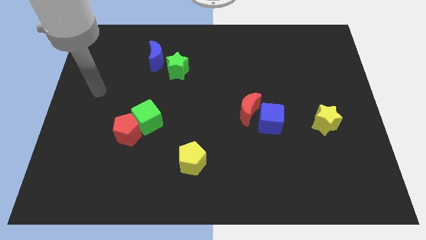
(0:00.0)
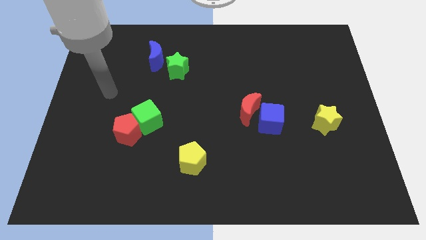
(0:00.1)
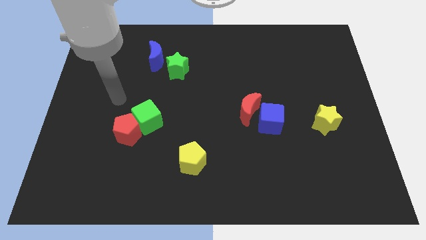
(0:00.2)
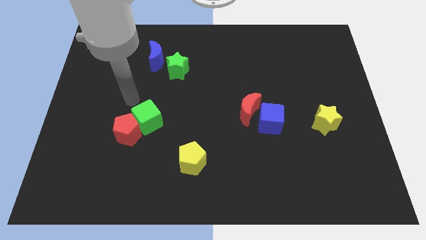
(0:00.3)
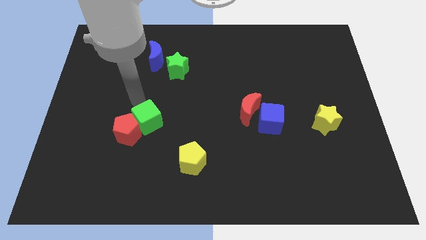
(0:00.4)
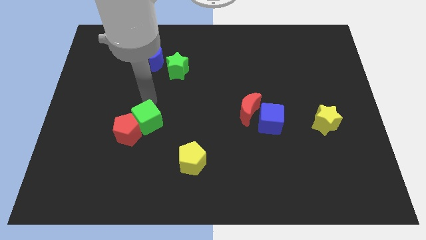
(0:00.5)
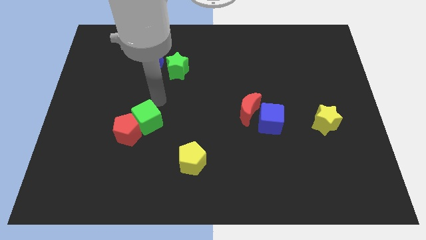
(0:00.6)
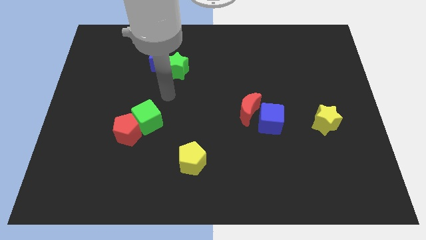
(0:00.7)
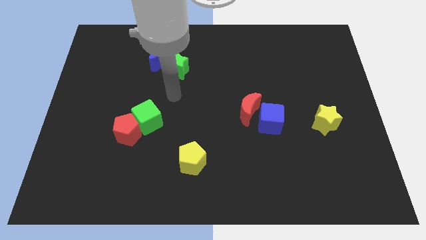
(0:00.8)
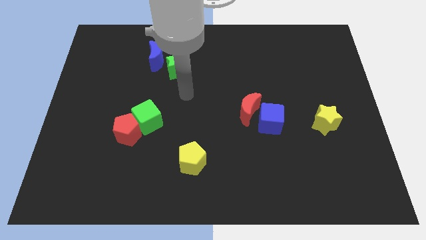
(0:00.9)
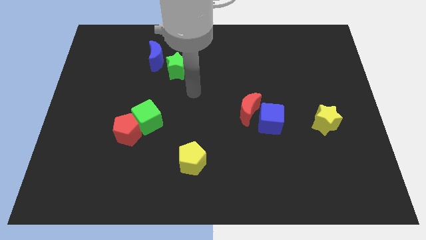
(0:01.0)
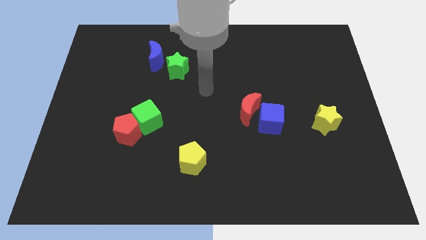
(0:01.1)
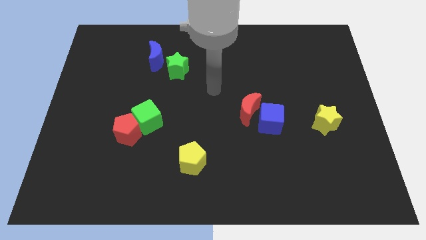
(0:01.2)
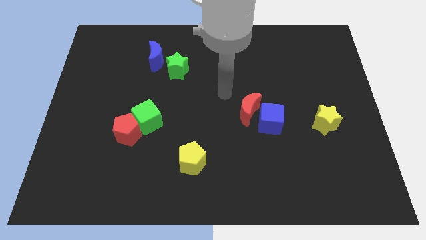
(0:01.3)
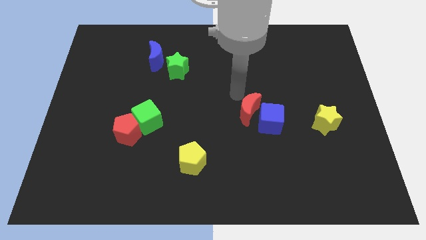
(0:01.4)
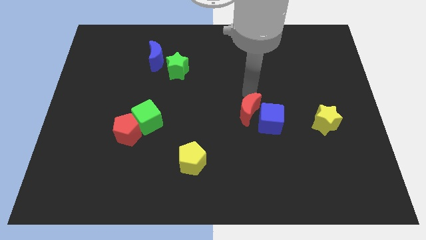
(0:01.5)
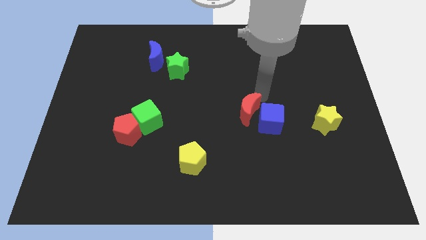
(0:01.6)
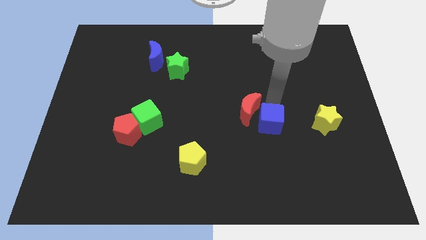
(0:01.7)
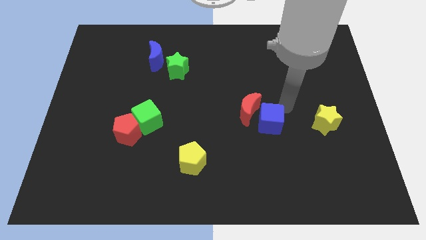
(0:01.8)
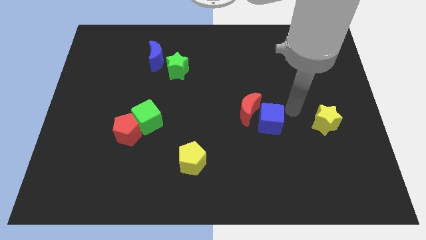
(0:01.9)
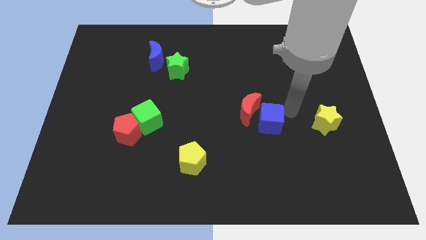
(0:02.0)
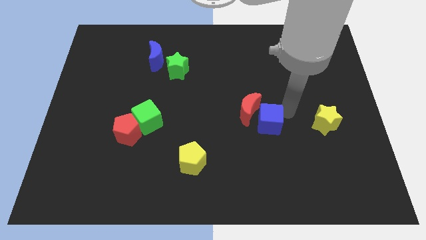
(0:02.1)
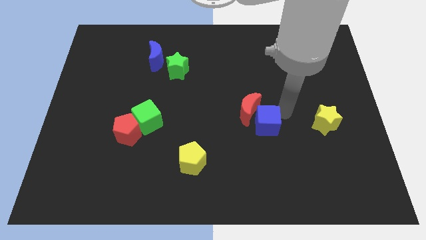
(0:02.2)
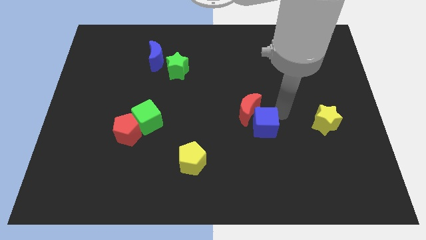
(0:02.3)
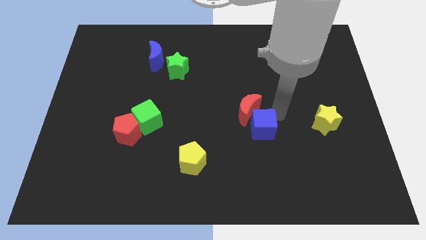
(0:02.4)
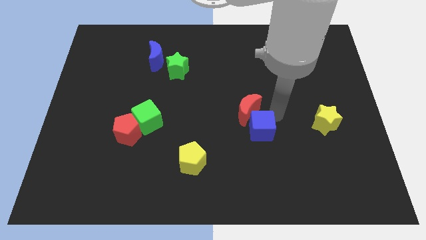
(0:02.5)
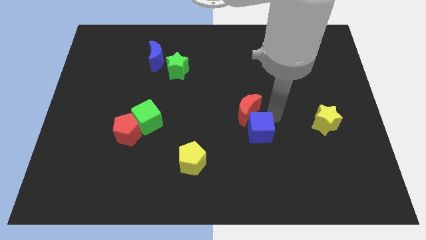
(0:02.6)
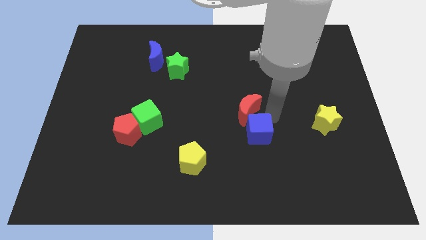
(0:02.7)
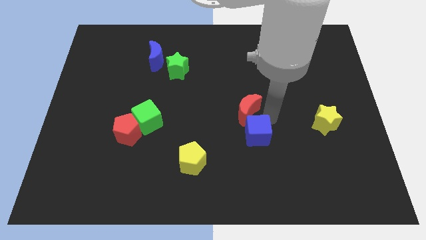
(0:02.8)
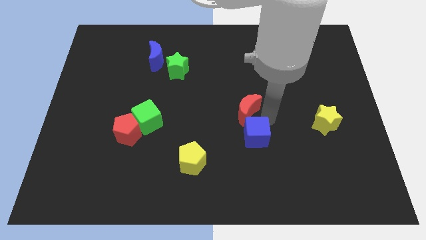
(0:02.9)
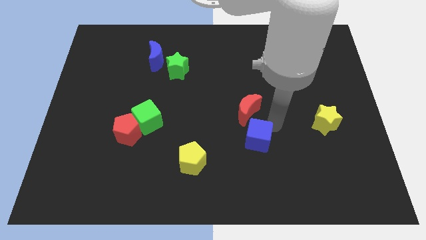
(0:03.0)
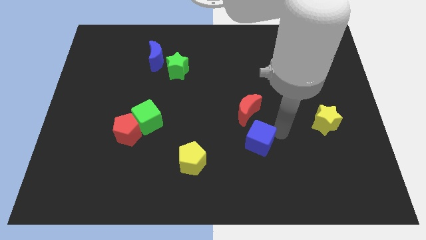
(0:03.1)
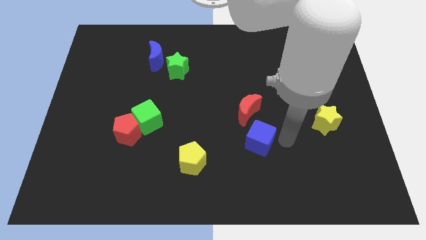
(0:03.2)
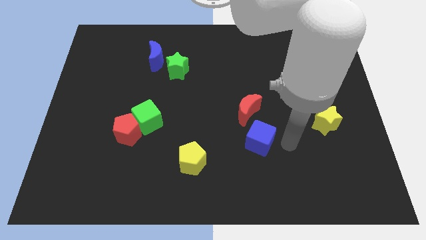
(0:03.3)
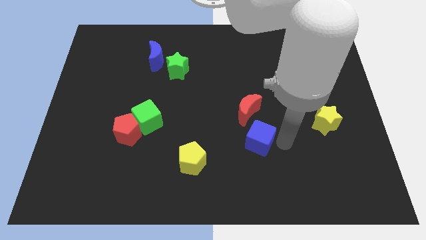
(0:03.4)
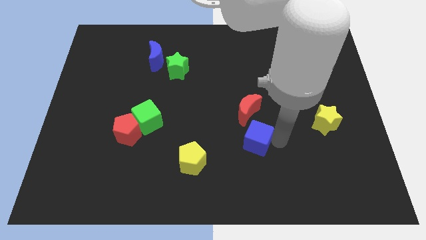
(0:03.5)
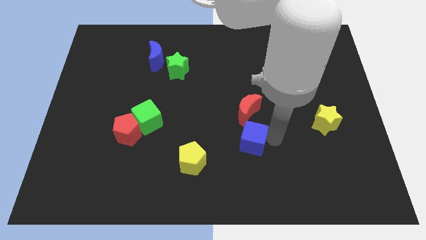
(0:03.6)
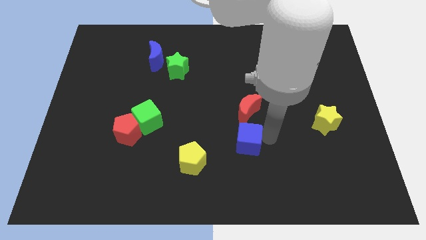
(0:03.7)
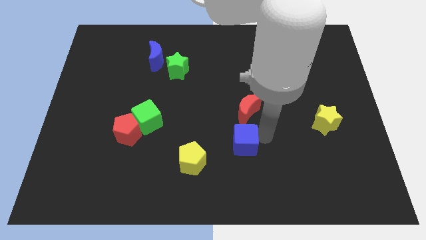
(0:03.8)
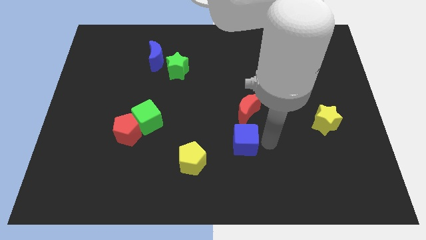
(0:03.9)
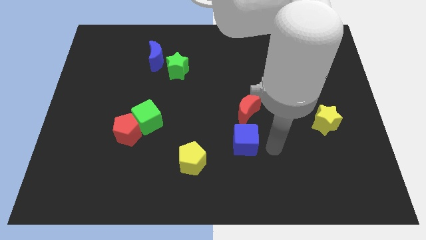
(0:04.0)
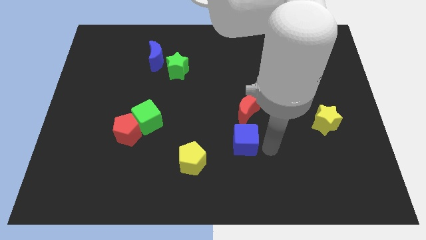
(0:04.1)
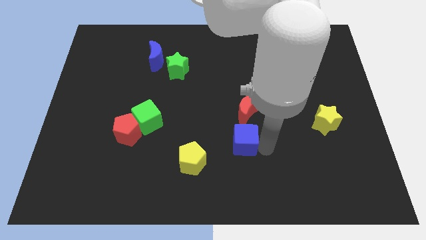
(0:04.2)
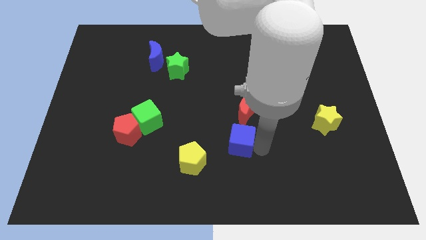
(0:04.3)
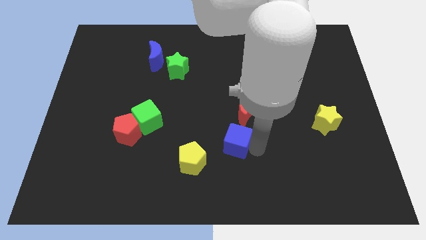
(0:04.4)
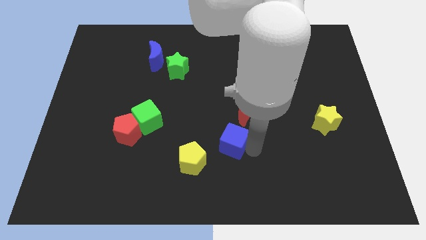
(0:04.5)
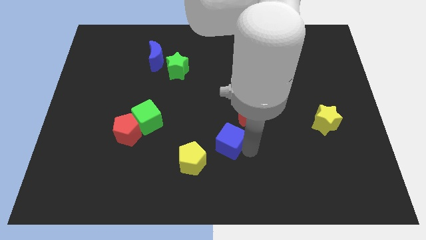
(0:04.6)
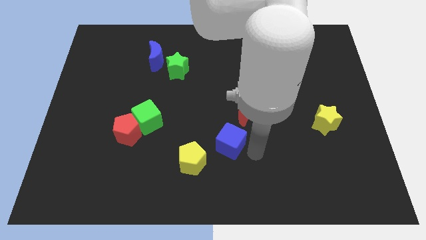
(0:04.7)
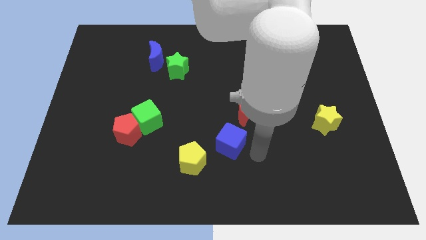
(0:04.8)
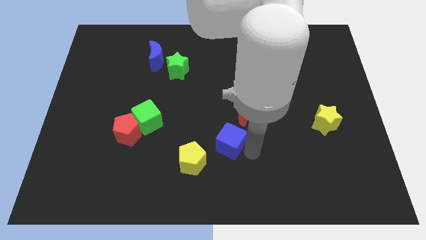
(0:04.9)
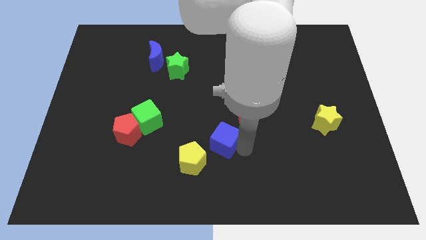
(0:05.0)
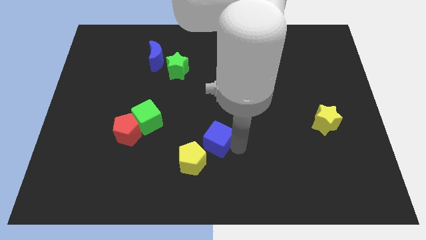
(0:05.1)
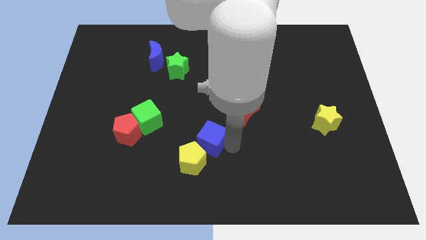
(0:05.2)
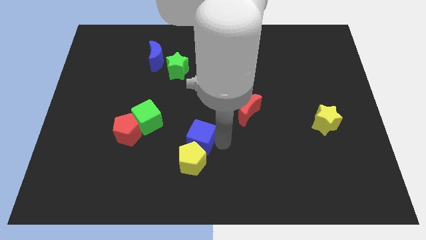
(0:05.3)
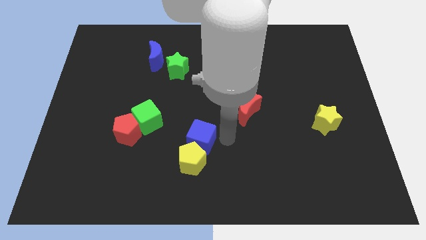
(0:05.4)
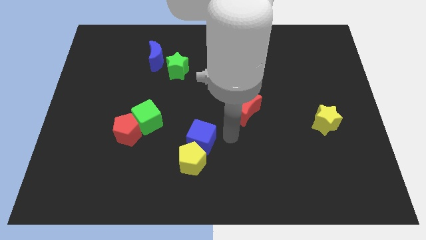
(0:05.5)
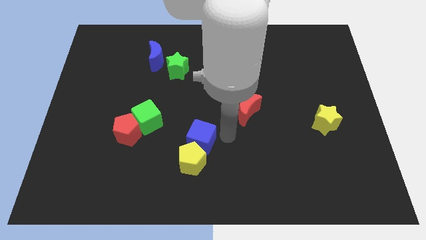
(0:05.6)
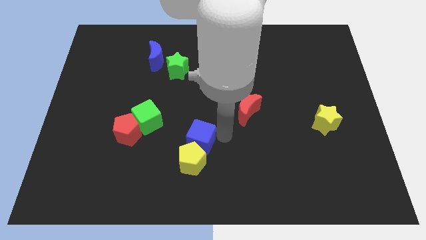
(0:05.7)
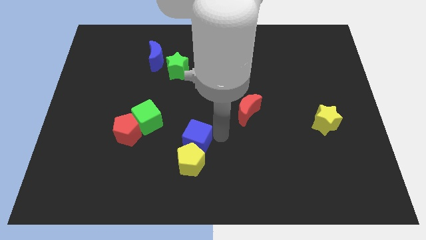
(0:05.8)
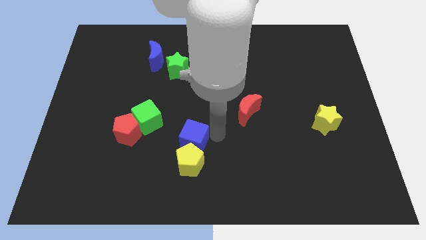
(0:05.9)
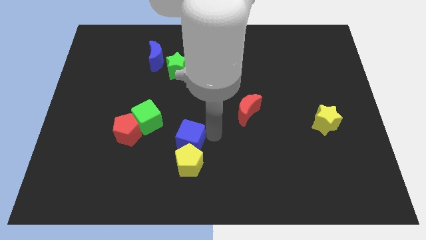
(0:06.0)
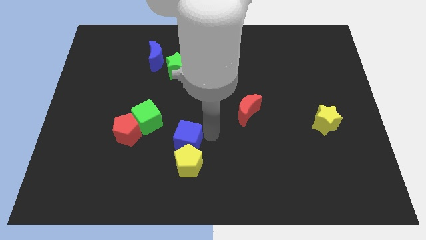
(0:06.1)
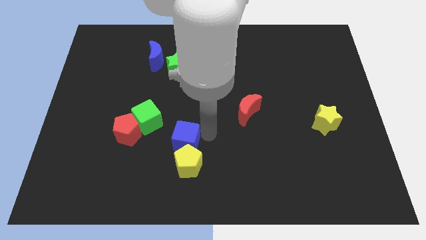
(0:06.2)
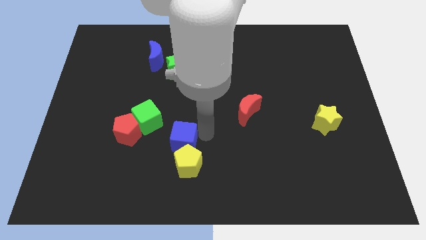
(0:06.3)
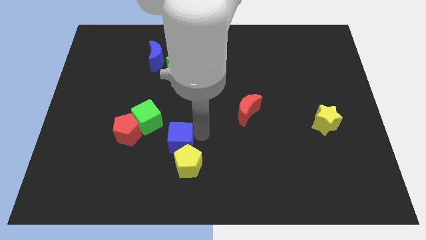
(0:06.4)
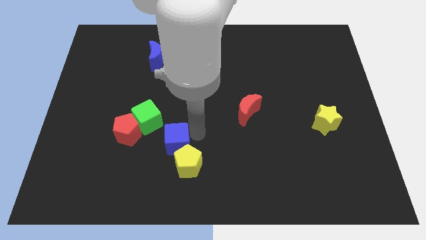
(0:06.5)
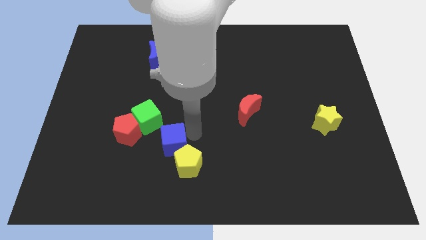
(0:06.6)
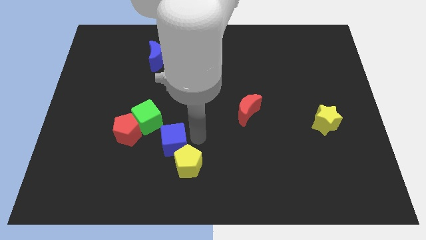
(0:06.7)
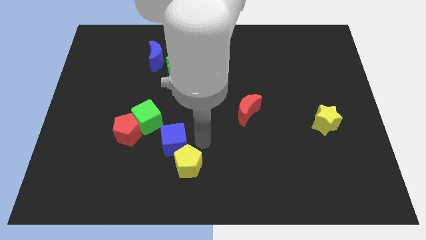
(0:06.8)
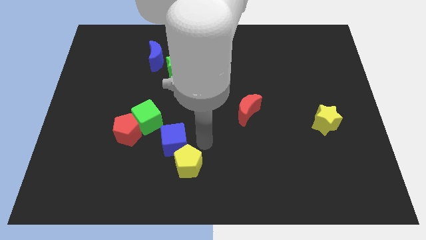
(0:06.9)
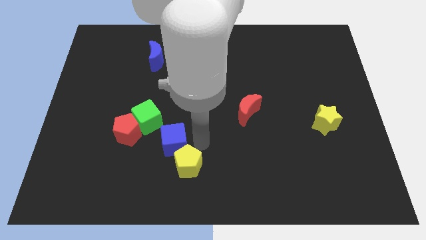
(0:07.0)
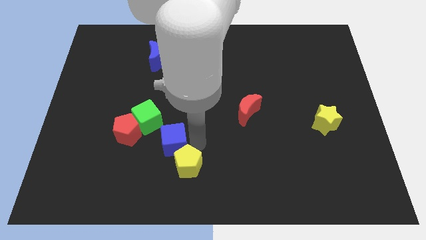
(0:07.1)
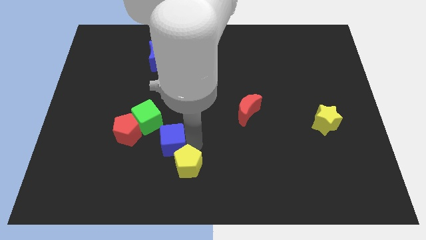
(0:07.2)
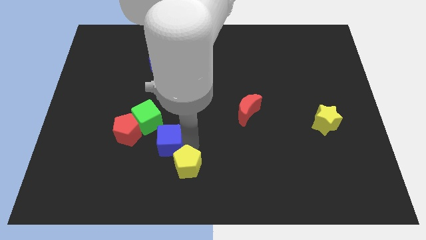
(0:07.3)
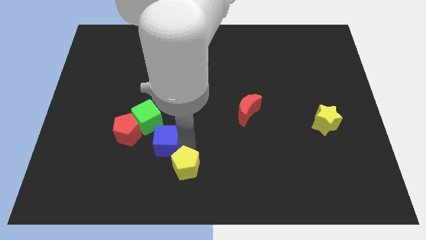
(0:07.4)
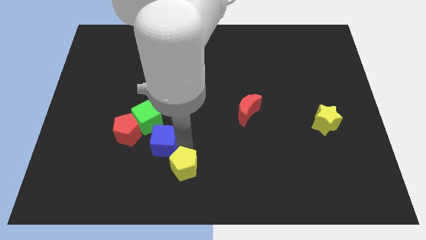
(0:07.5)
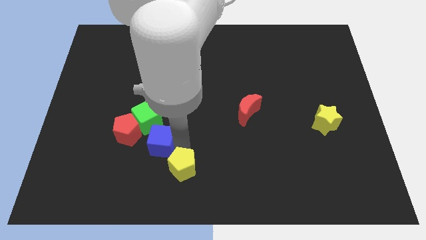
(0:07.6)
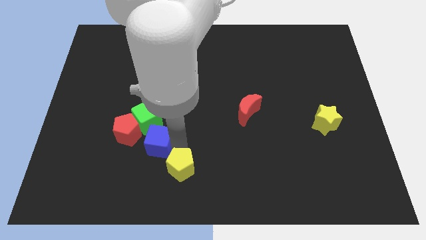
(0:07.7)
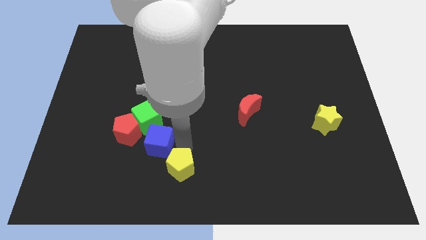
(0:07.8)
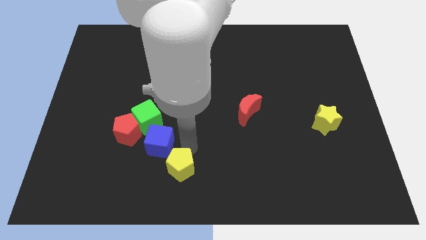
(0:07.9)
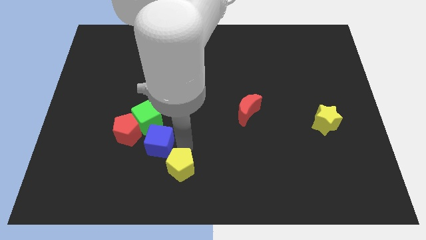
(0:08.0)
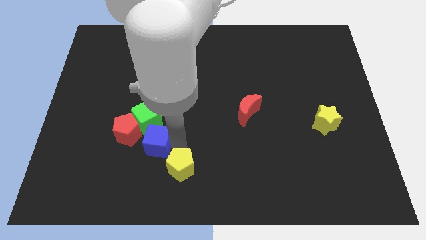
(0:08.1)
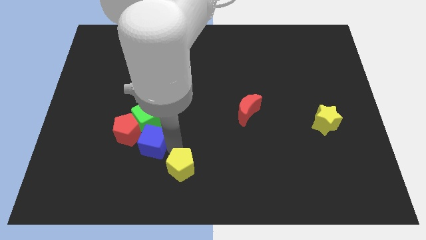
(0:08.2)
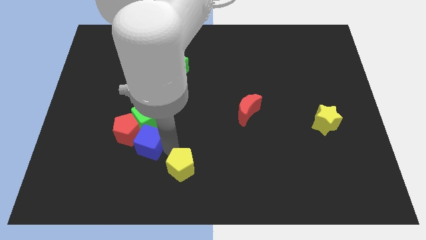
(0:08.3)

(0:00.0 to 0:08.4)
put the blue cube next to the red pentagon
